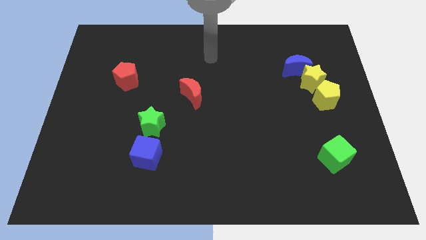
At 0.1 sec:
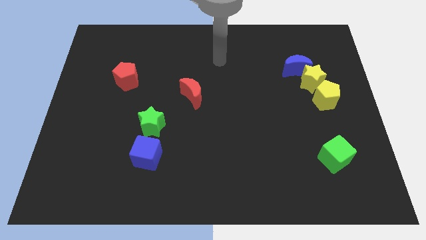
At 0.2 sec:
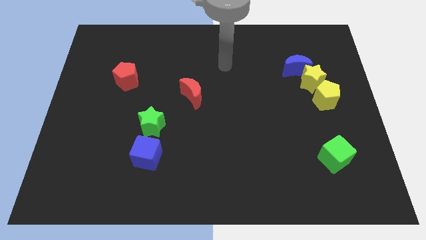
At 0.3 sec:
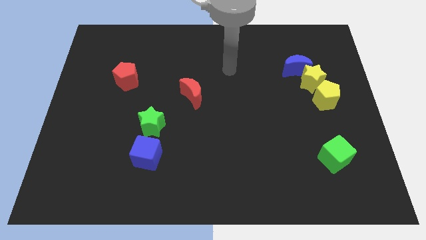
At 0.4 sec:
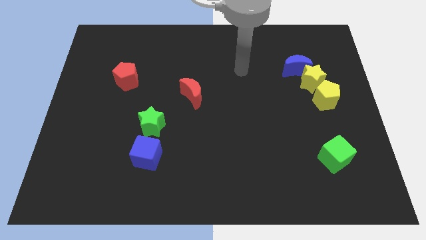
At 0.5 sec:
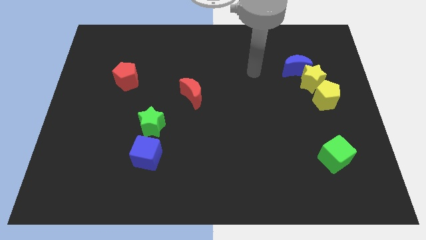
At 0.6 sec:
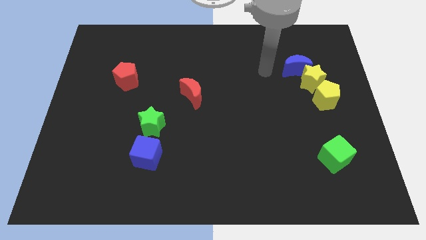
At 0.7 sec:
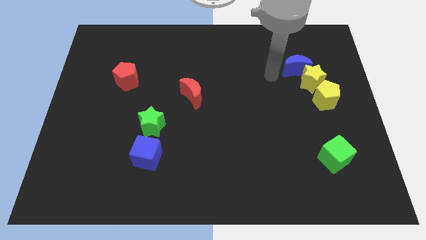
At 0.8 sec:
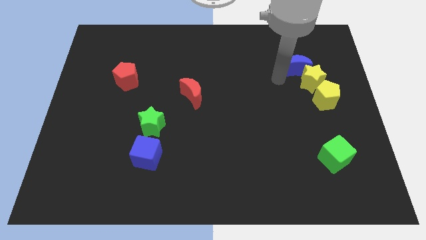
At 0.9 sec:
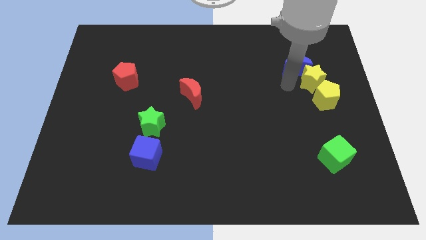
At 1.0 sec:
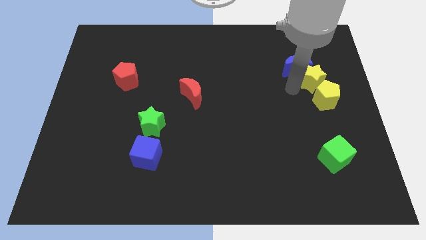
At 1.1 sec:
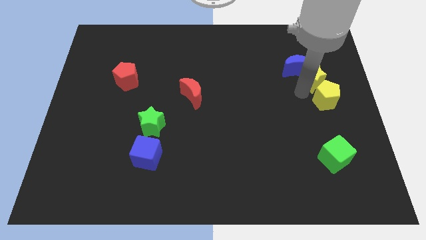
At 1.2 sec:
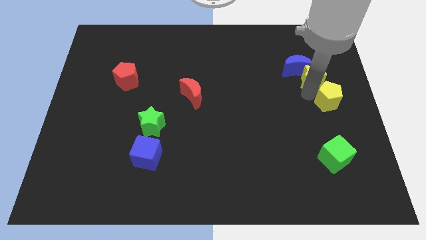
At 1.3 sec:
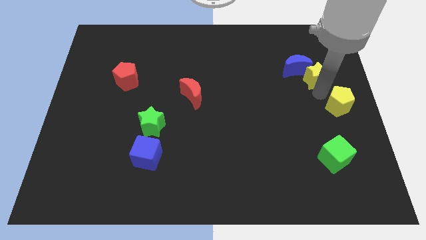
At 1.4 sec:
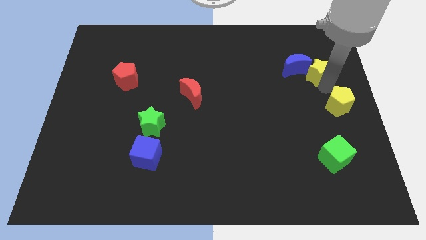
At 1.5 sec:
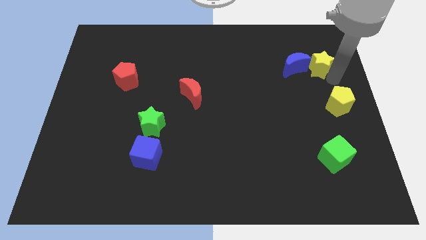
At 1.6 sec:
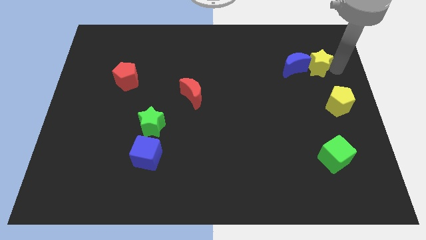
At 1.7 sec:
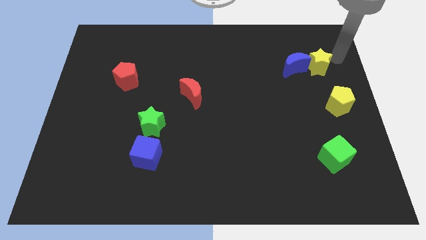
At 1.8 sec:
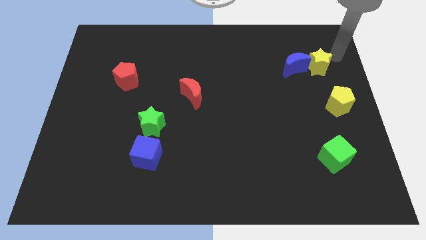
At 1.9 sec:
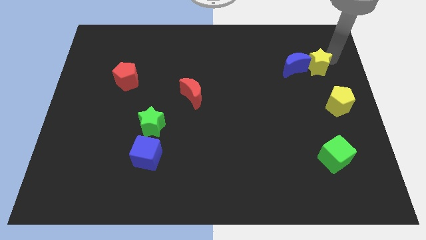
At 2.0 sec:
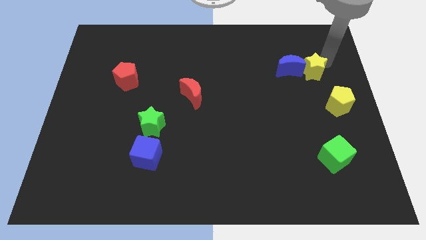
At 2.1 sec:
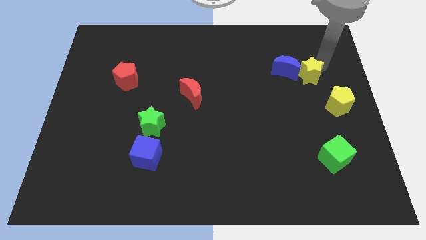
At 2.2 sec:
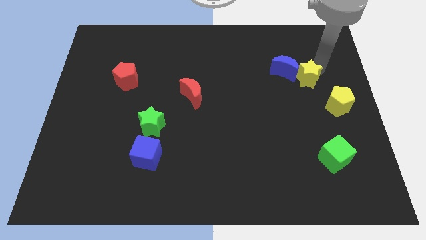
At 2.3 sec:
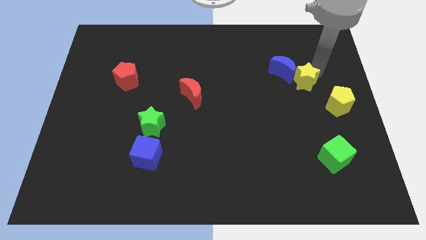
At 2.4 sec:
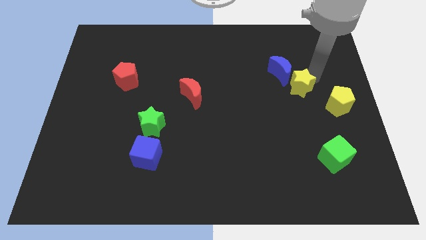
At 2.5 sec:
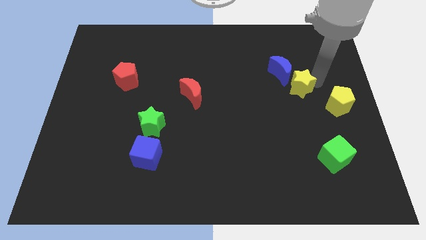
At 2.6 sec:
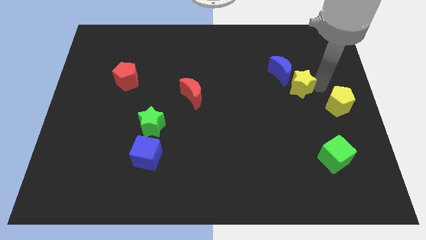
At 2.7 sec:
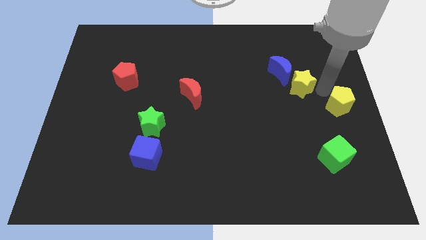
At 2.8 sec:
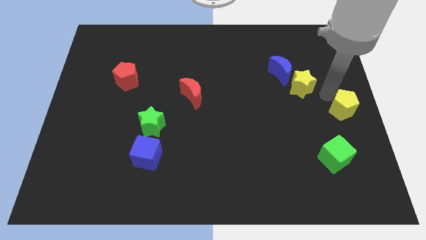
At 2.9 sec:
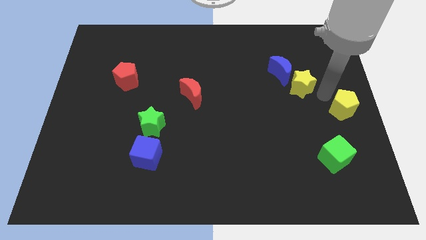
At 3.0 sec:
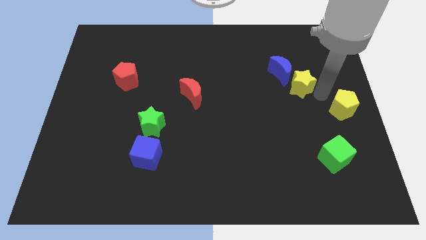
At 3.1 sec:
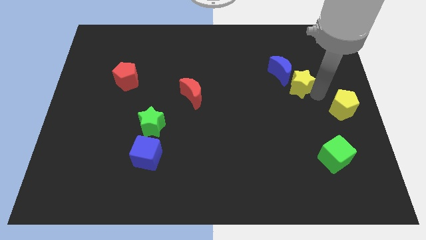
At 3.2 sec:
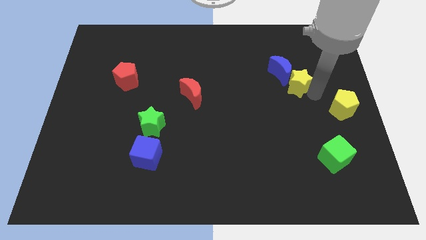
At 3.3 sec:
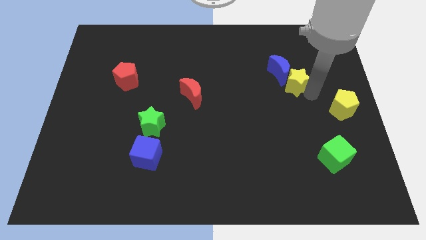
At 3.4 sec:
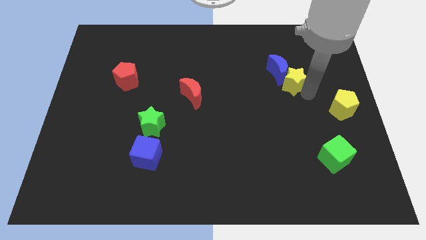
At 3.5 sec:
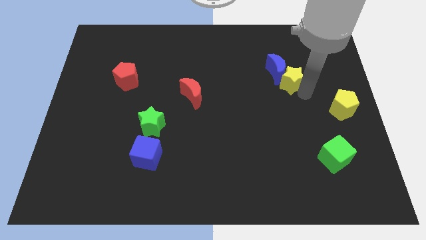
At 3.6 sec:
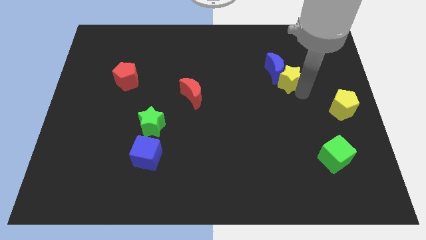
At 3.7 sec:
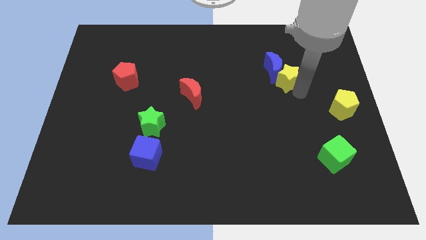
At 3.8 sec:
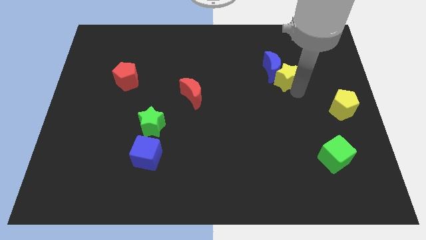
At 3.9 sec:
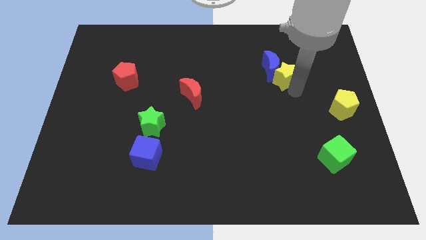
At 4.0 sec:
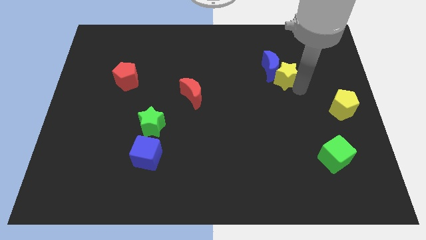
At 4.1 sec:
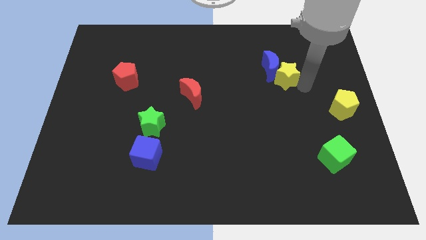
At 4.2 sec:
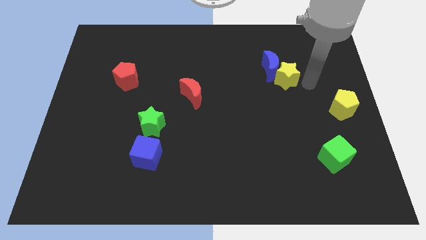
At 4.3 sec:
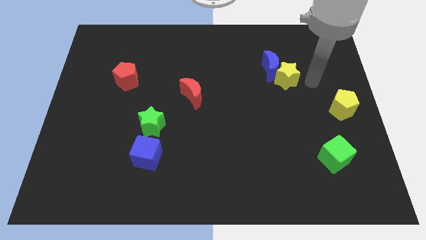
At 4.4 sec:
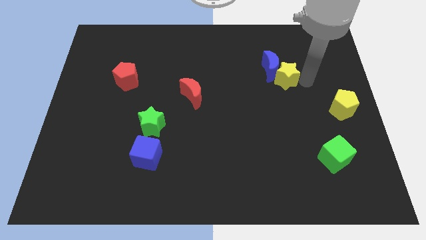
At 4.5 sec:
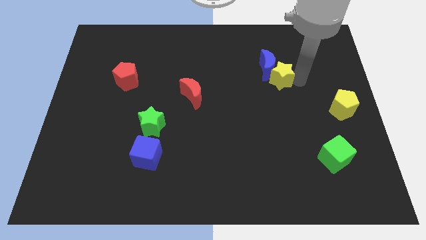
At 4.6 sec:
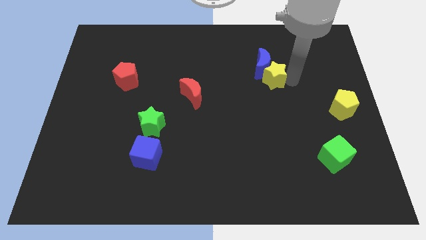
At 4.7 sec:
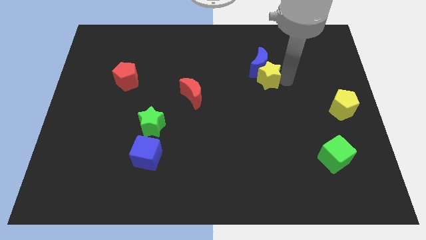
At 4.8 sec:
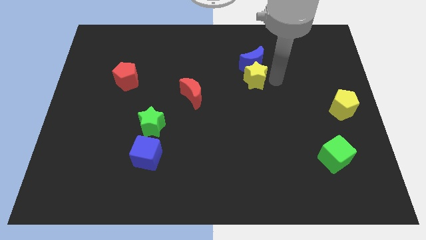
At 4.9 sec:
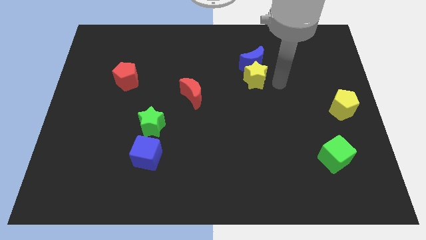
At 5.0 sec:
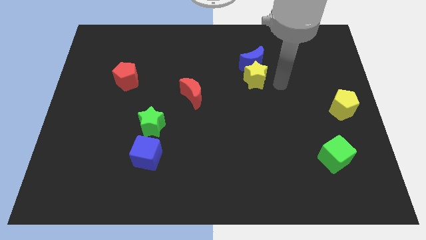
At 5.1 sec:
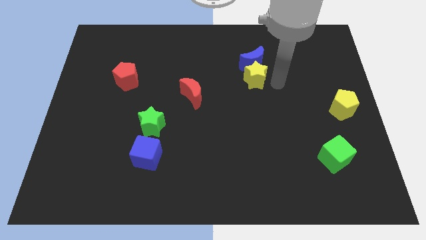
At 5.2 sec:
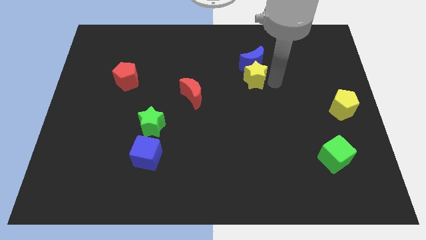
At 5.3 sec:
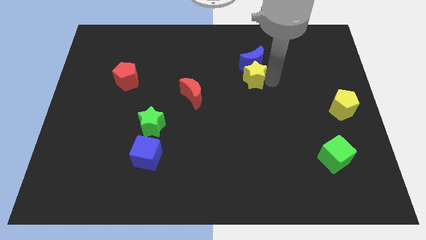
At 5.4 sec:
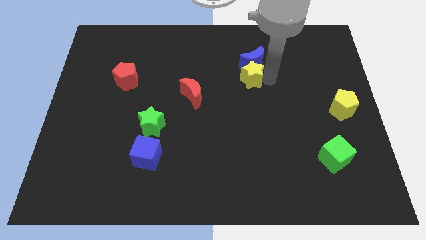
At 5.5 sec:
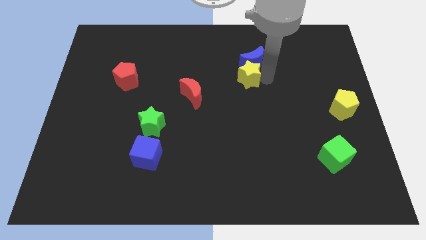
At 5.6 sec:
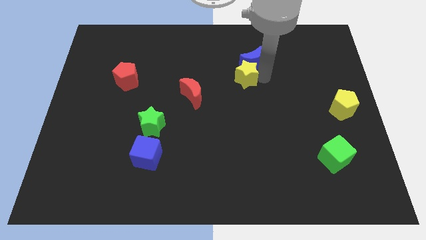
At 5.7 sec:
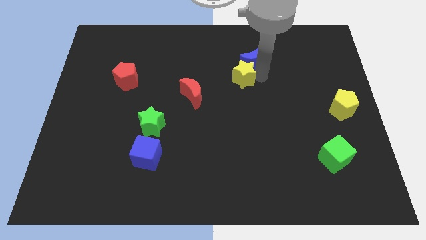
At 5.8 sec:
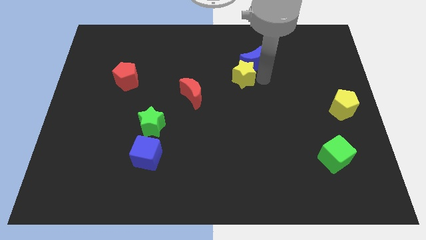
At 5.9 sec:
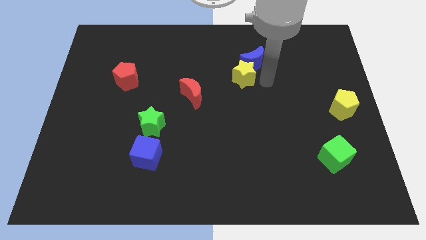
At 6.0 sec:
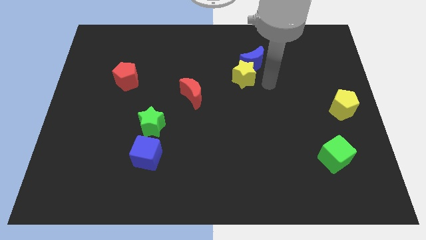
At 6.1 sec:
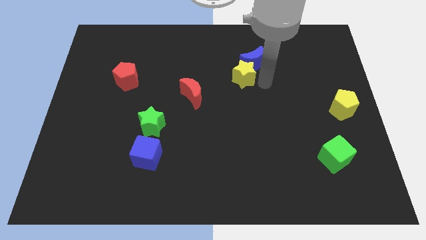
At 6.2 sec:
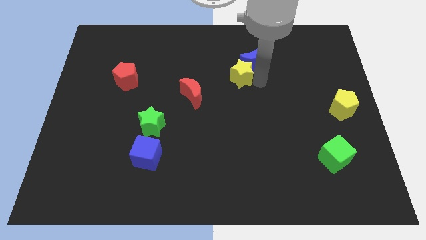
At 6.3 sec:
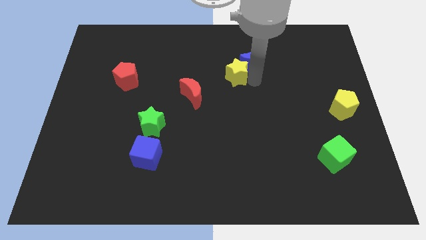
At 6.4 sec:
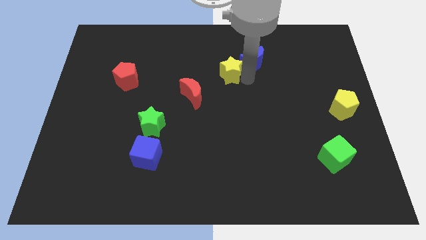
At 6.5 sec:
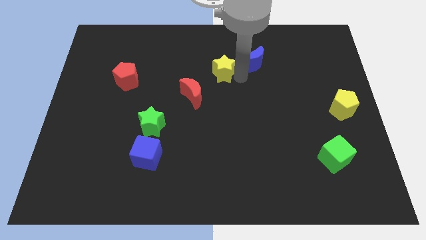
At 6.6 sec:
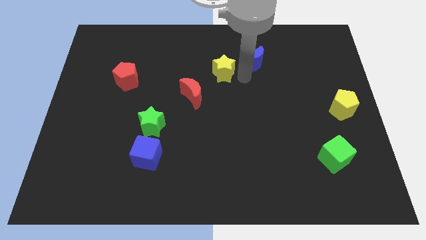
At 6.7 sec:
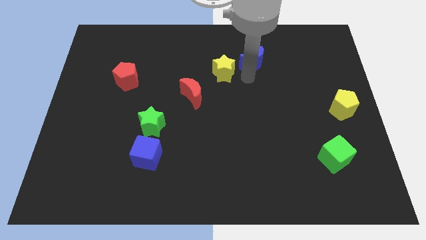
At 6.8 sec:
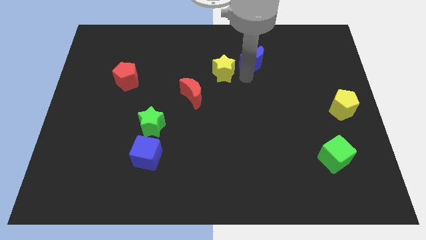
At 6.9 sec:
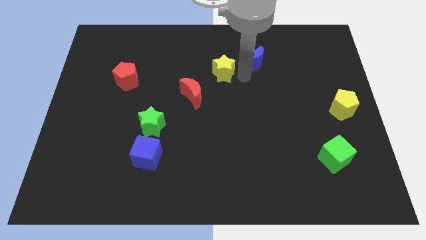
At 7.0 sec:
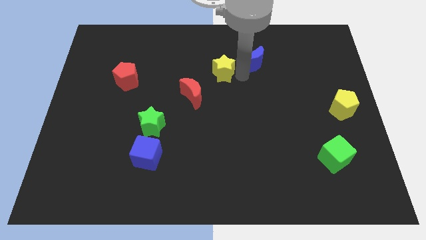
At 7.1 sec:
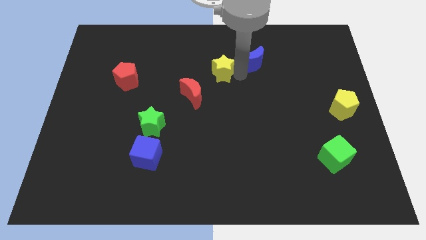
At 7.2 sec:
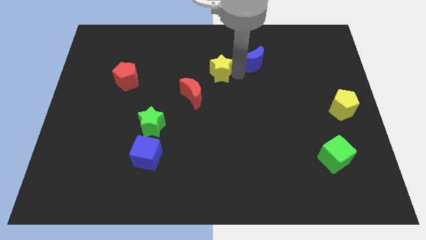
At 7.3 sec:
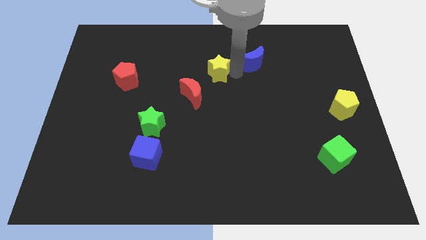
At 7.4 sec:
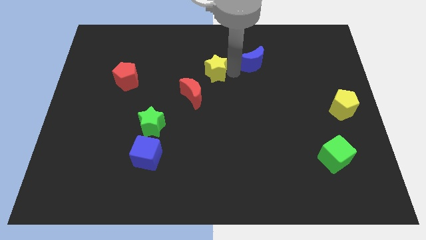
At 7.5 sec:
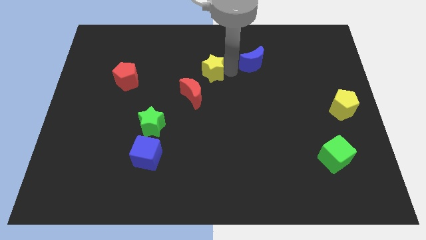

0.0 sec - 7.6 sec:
slide the yellow star to the top of the red moon

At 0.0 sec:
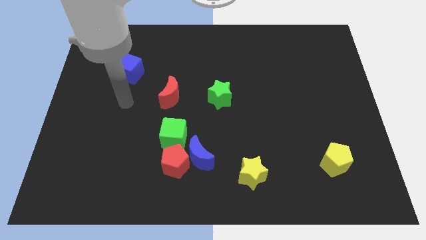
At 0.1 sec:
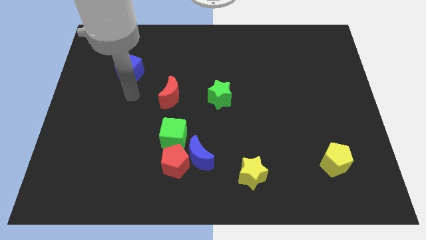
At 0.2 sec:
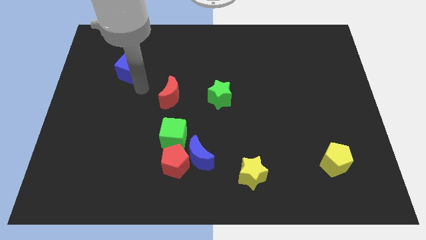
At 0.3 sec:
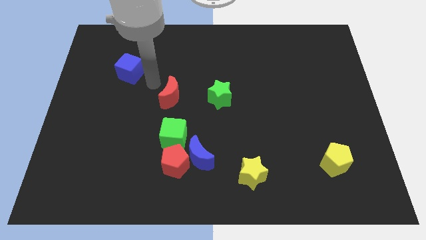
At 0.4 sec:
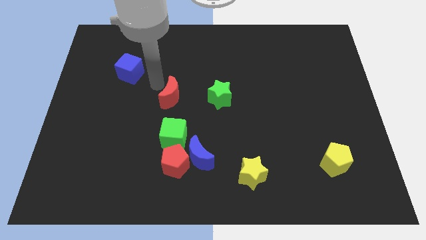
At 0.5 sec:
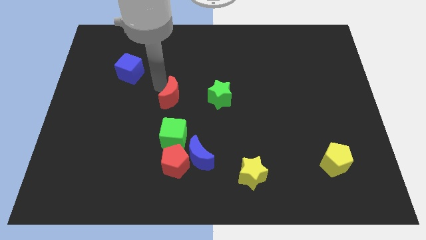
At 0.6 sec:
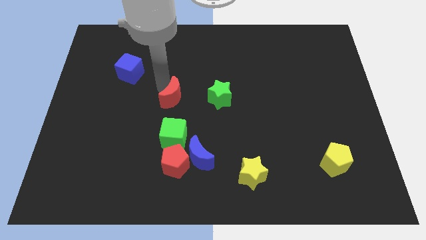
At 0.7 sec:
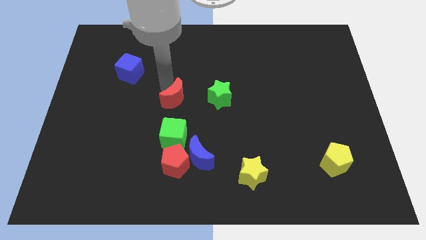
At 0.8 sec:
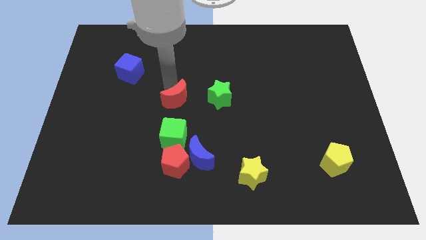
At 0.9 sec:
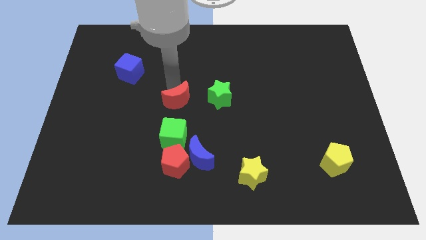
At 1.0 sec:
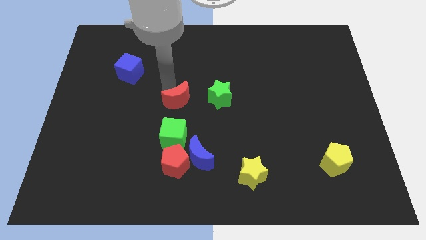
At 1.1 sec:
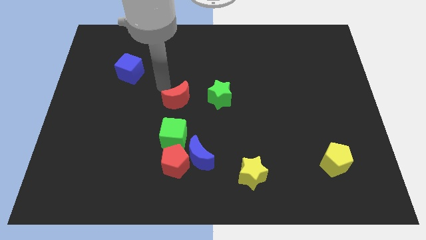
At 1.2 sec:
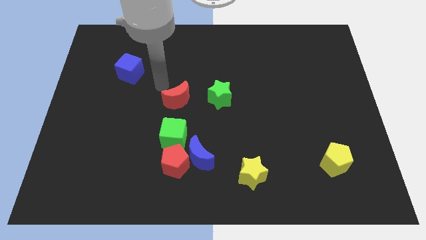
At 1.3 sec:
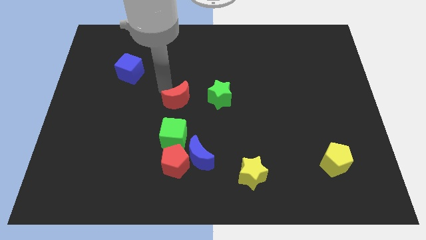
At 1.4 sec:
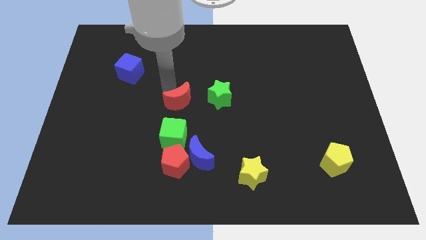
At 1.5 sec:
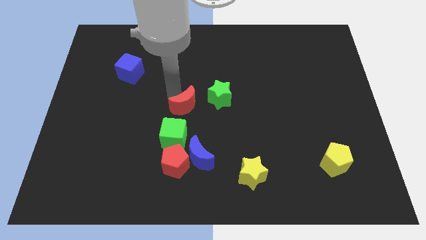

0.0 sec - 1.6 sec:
push the red moon to the top right of the green cube
